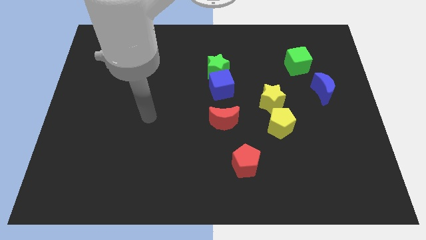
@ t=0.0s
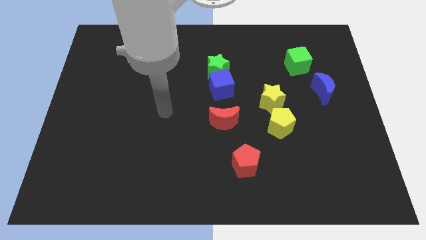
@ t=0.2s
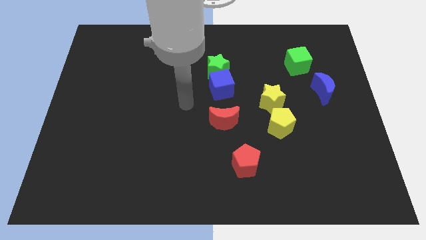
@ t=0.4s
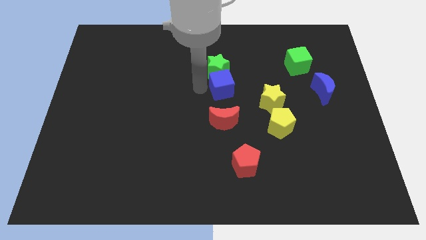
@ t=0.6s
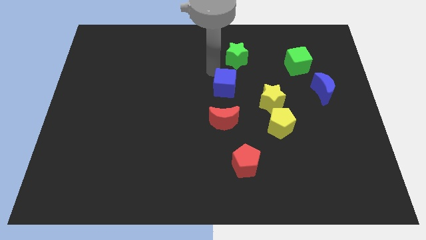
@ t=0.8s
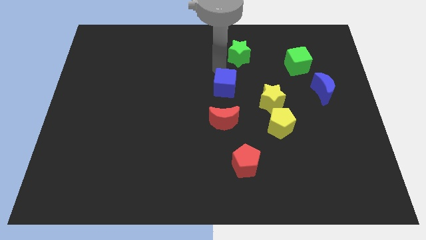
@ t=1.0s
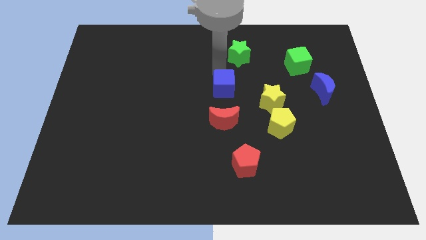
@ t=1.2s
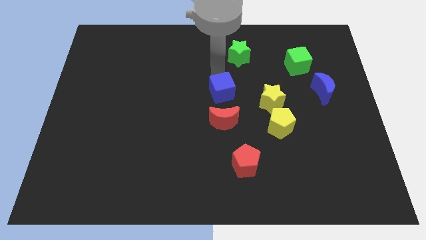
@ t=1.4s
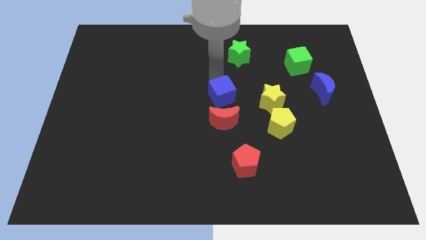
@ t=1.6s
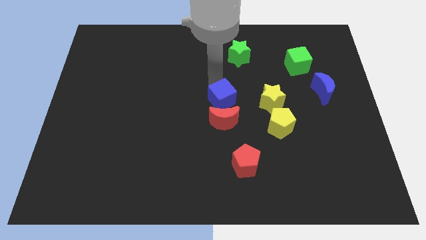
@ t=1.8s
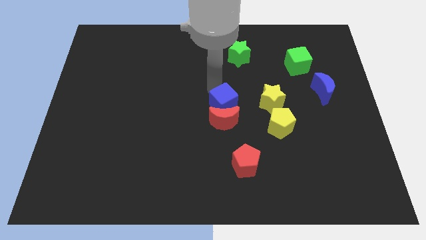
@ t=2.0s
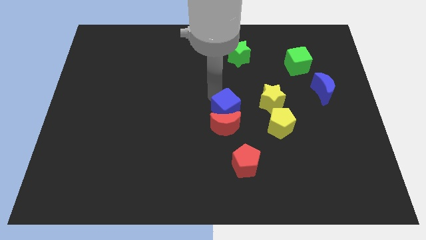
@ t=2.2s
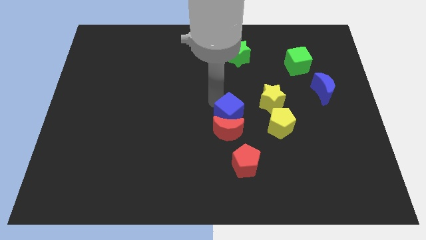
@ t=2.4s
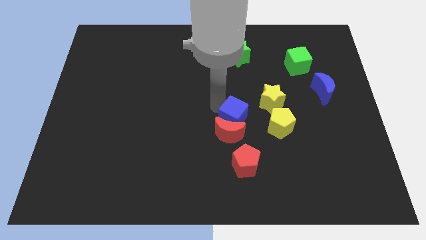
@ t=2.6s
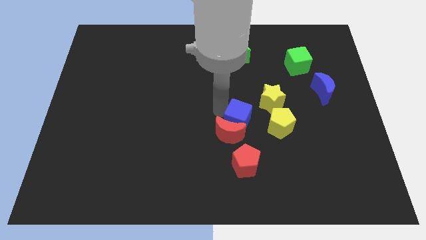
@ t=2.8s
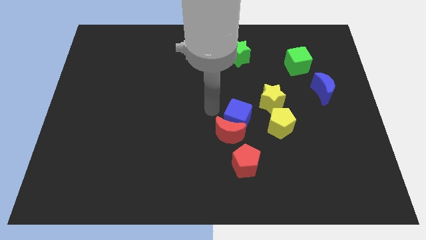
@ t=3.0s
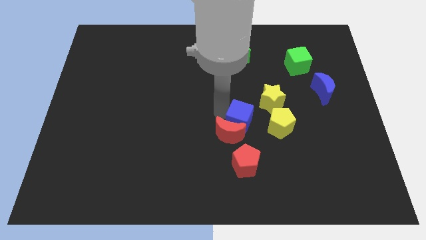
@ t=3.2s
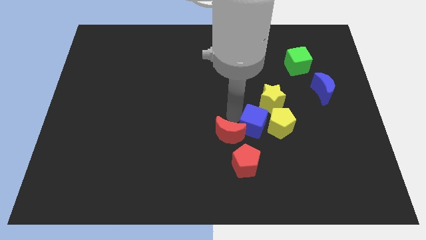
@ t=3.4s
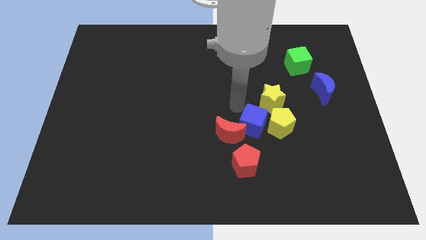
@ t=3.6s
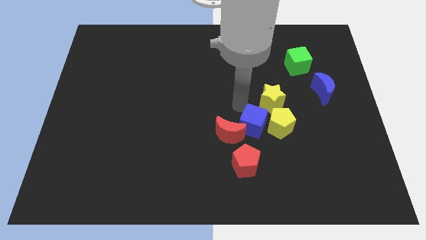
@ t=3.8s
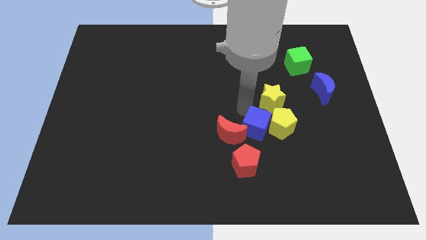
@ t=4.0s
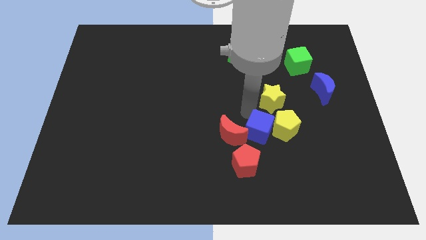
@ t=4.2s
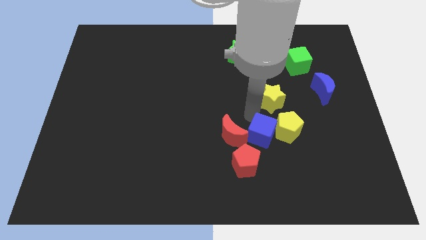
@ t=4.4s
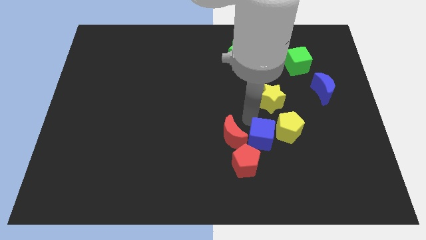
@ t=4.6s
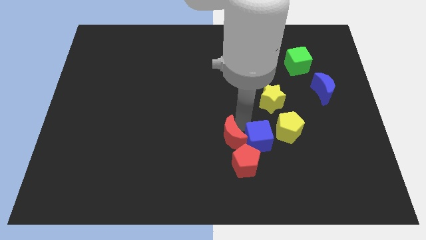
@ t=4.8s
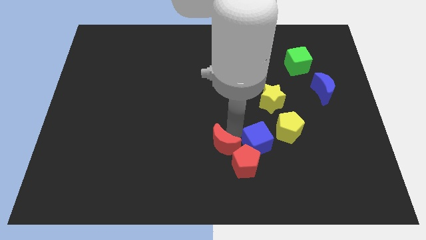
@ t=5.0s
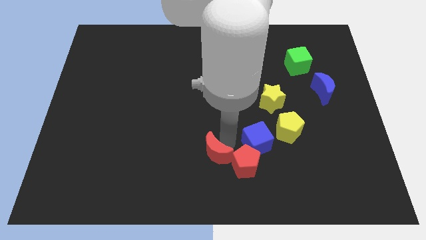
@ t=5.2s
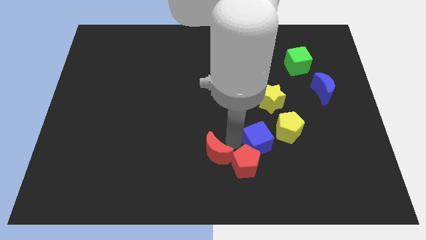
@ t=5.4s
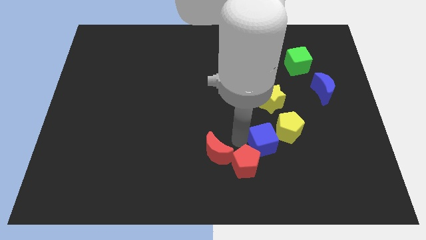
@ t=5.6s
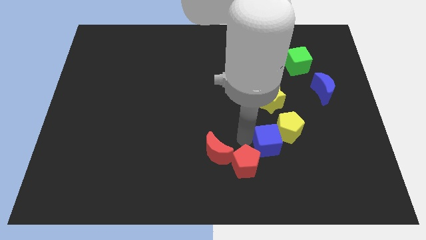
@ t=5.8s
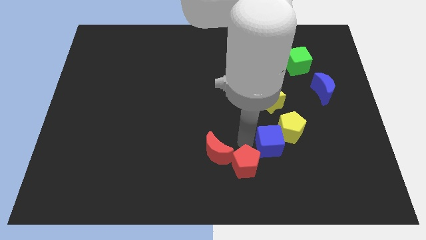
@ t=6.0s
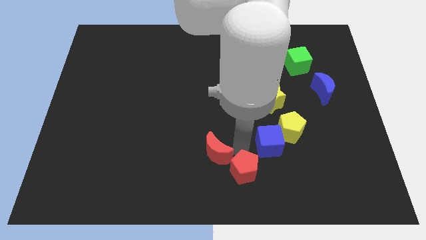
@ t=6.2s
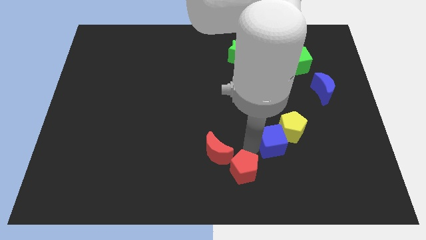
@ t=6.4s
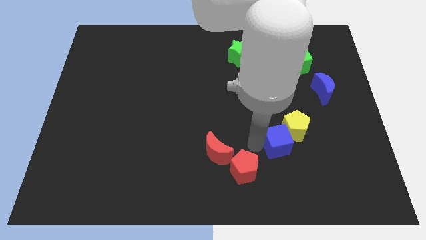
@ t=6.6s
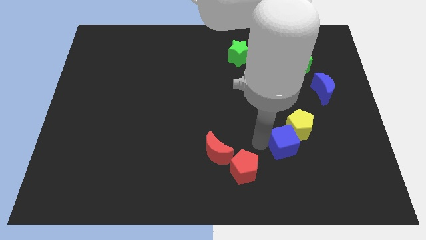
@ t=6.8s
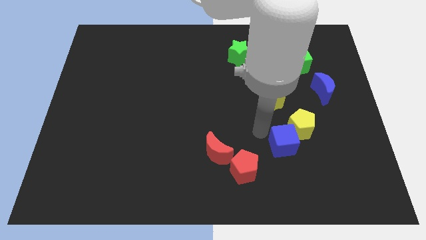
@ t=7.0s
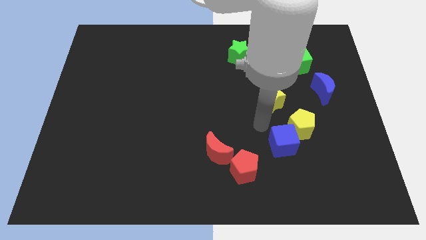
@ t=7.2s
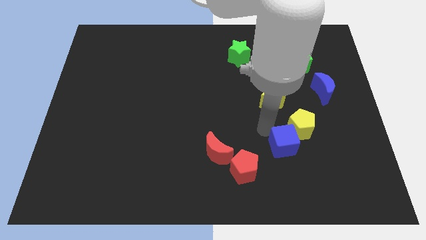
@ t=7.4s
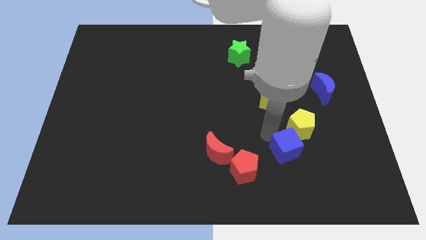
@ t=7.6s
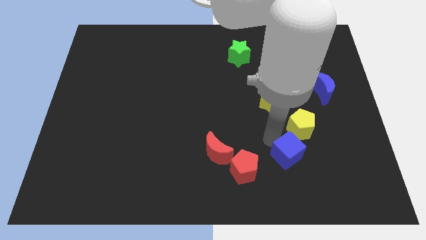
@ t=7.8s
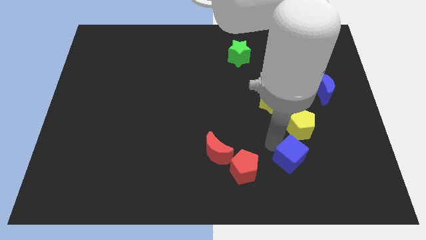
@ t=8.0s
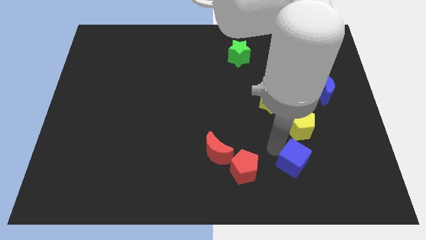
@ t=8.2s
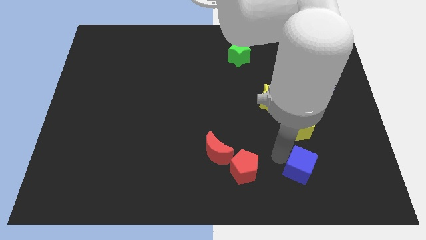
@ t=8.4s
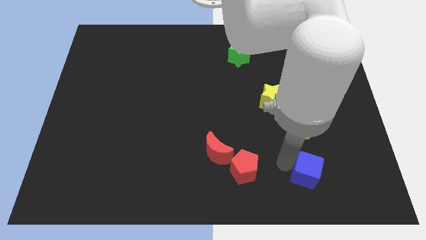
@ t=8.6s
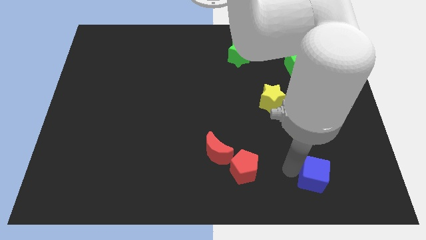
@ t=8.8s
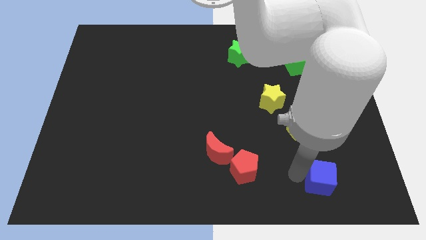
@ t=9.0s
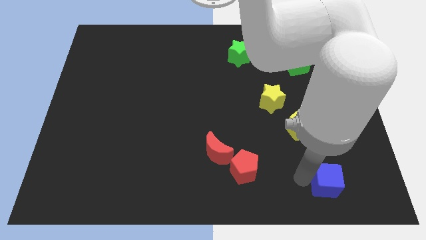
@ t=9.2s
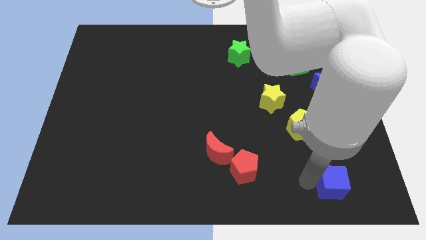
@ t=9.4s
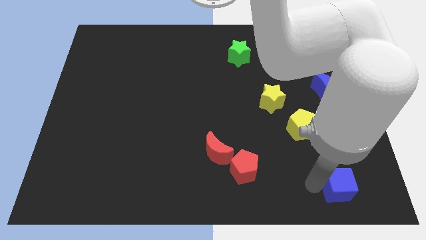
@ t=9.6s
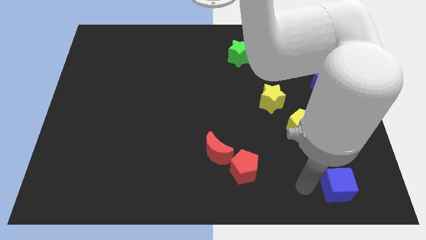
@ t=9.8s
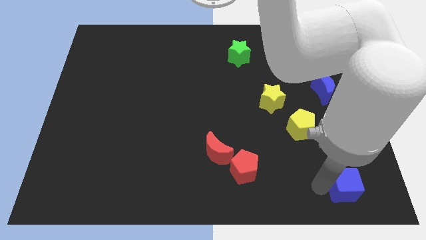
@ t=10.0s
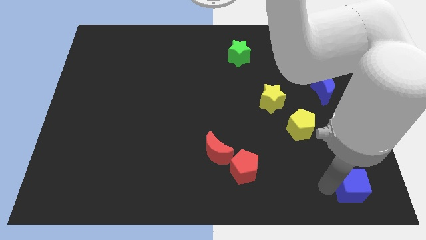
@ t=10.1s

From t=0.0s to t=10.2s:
push the blue cube to the bottom right of the board

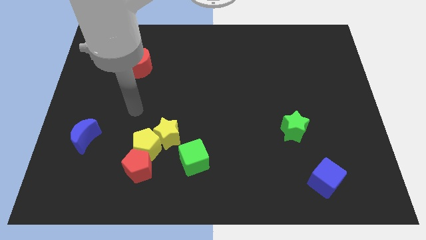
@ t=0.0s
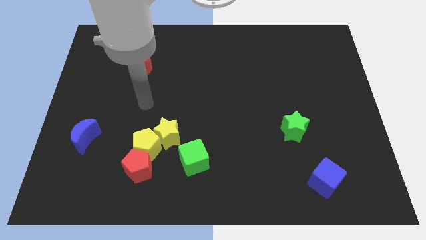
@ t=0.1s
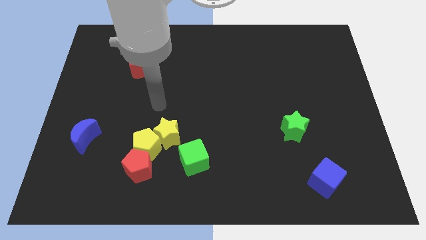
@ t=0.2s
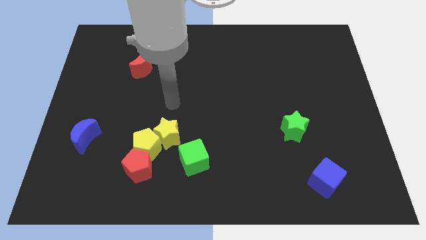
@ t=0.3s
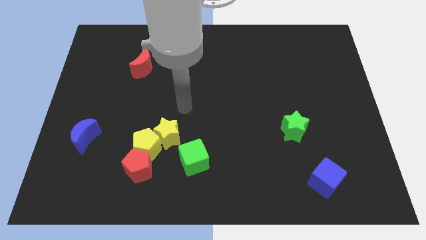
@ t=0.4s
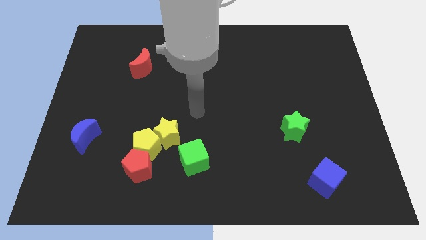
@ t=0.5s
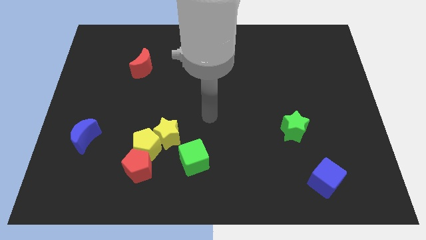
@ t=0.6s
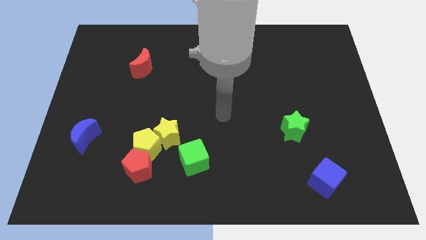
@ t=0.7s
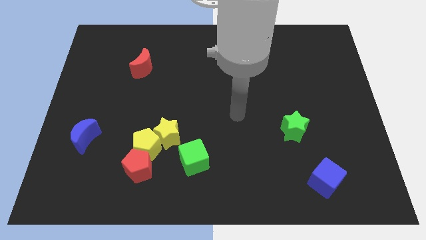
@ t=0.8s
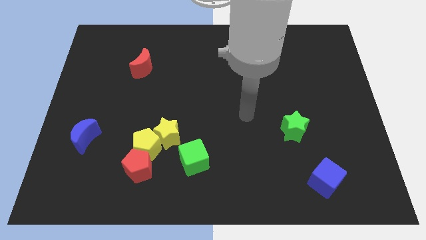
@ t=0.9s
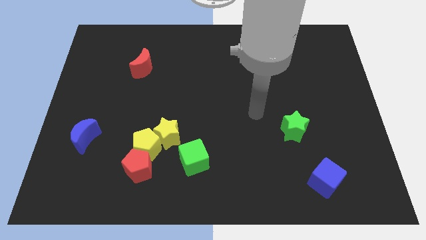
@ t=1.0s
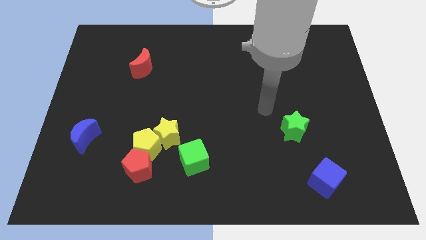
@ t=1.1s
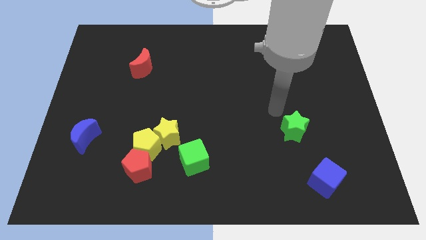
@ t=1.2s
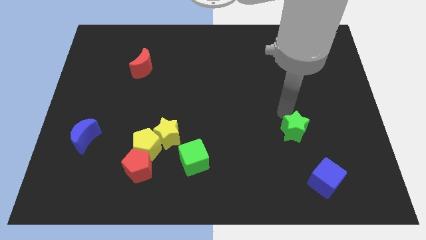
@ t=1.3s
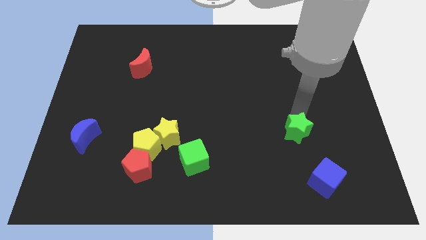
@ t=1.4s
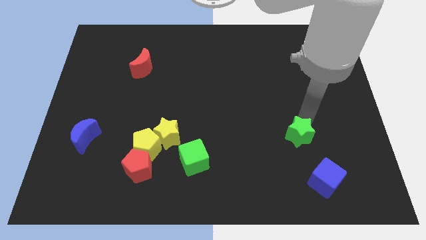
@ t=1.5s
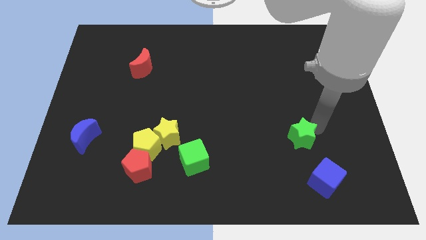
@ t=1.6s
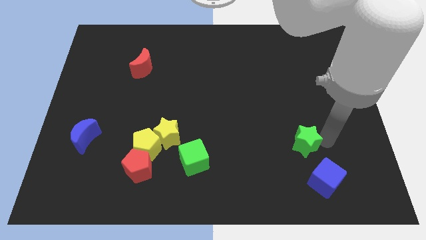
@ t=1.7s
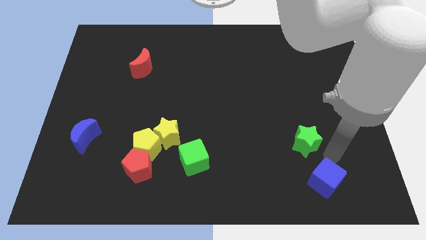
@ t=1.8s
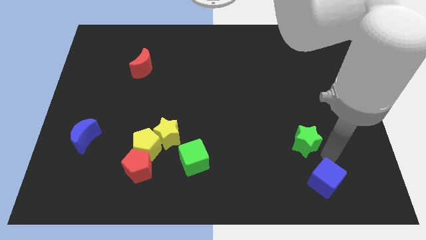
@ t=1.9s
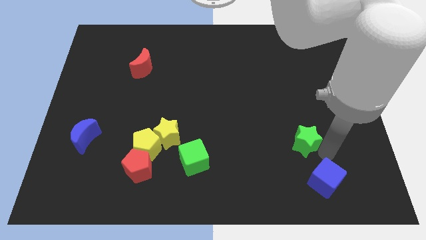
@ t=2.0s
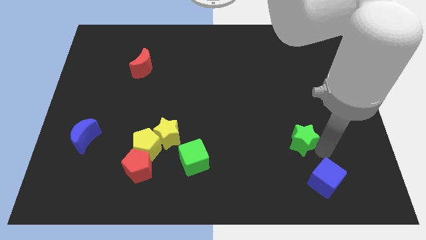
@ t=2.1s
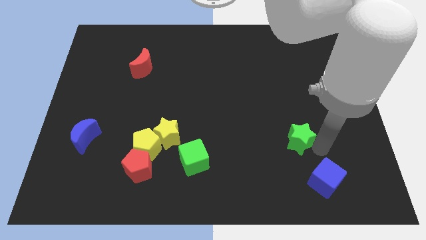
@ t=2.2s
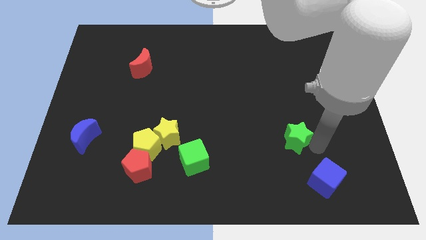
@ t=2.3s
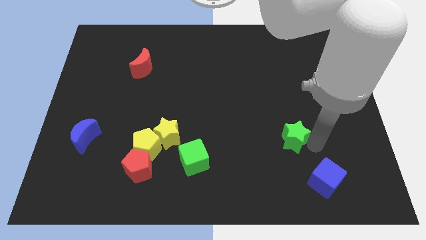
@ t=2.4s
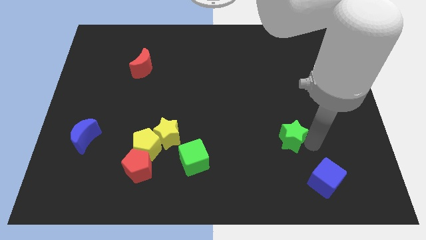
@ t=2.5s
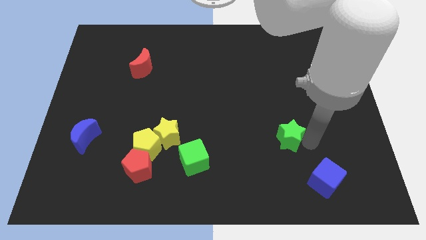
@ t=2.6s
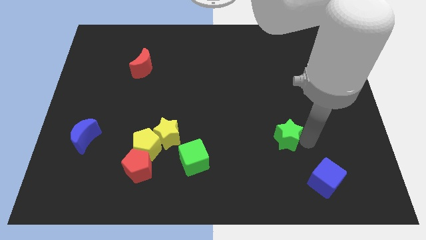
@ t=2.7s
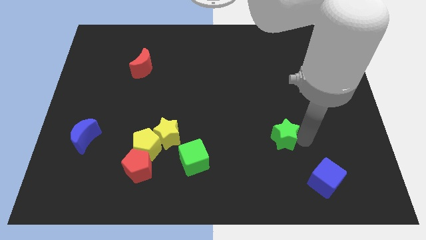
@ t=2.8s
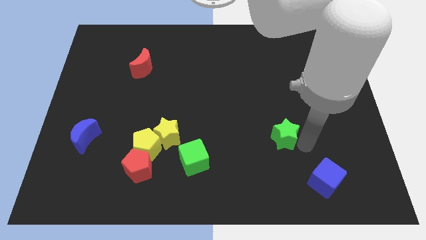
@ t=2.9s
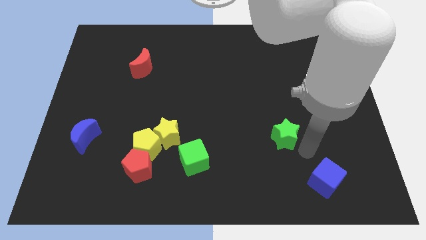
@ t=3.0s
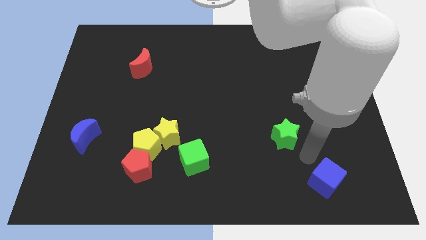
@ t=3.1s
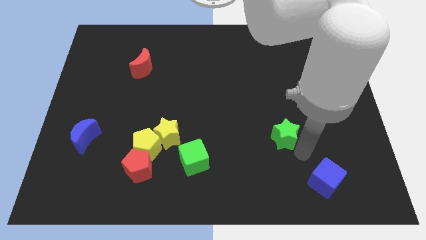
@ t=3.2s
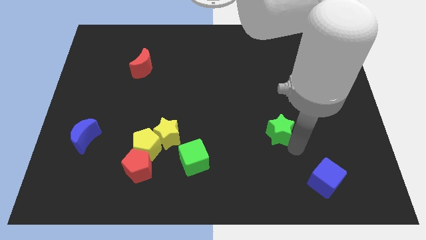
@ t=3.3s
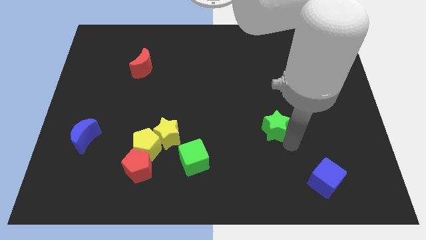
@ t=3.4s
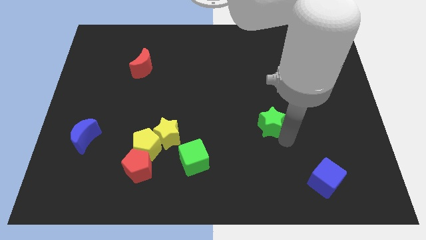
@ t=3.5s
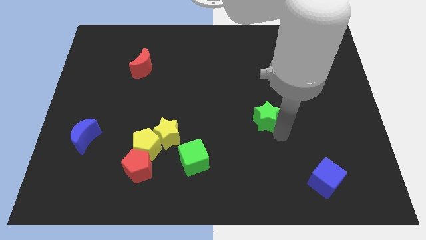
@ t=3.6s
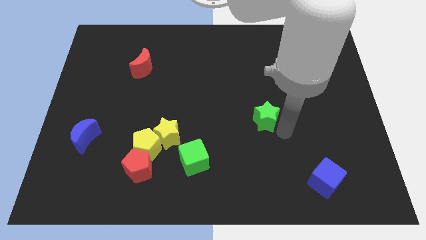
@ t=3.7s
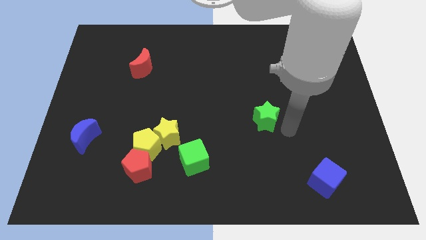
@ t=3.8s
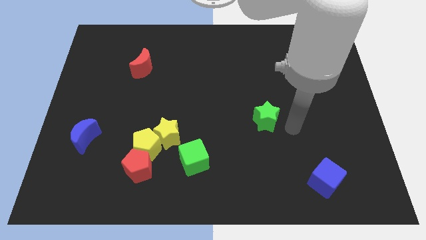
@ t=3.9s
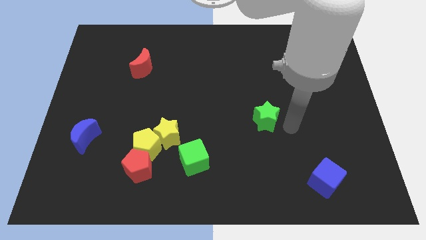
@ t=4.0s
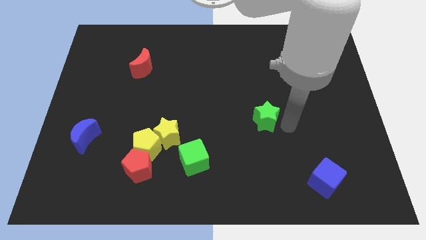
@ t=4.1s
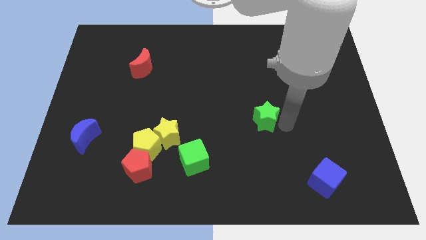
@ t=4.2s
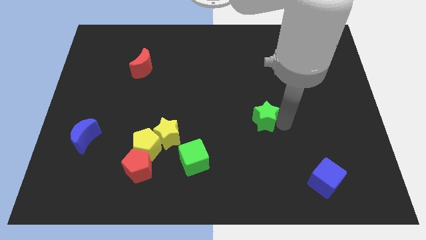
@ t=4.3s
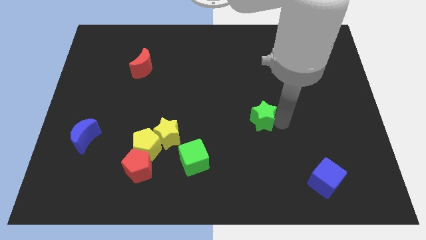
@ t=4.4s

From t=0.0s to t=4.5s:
put the green star to the middle
